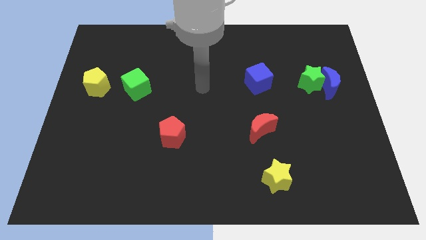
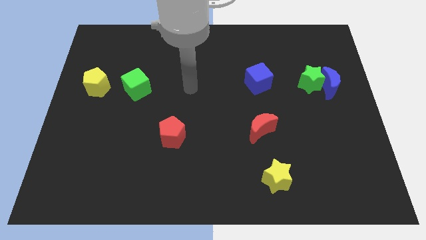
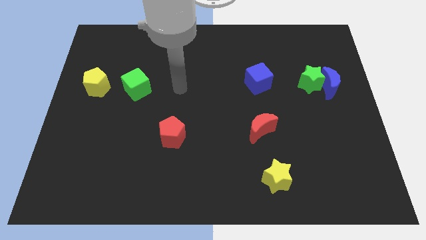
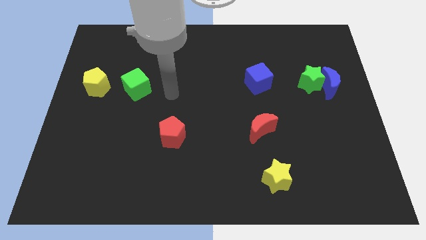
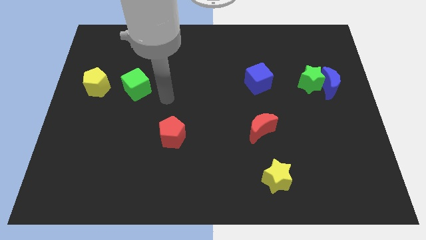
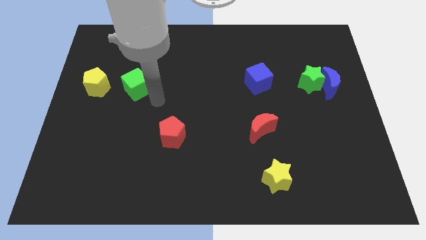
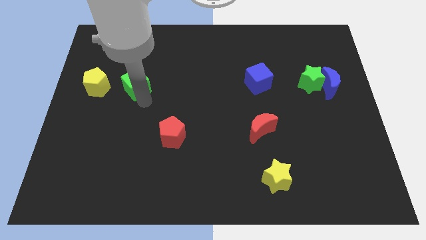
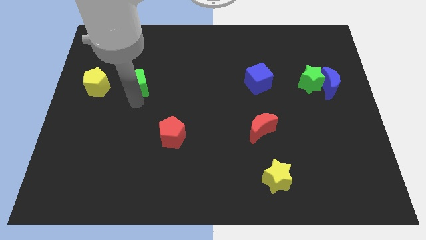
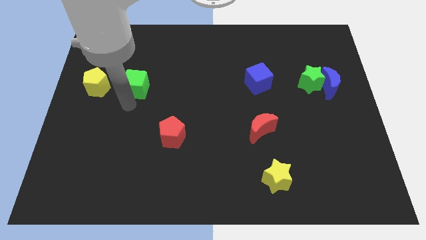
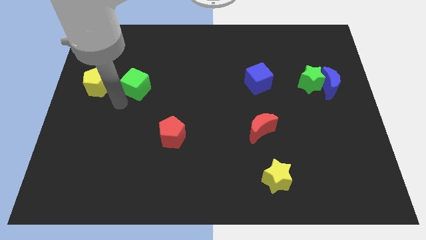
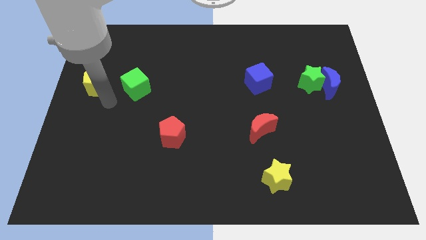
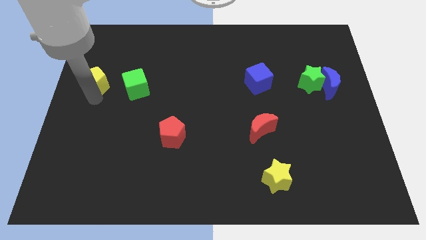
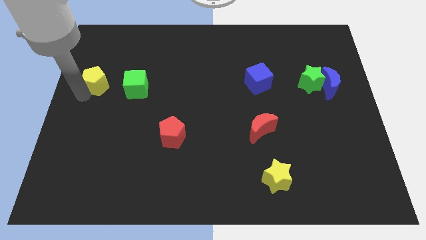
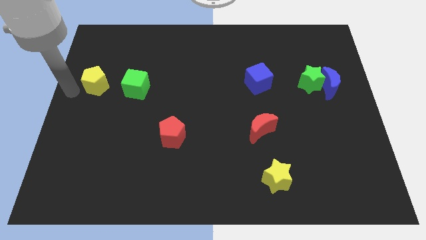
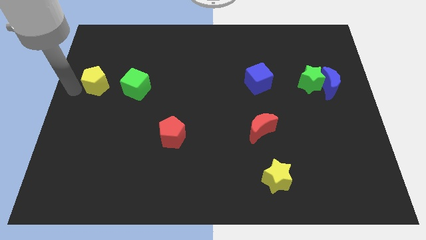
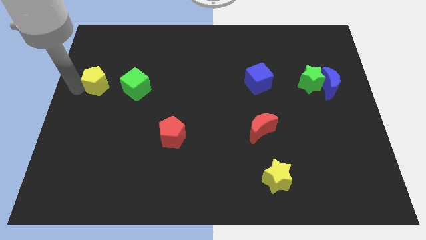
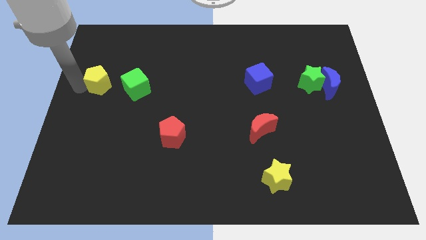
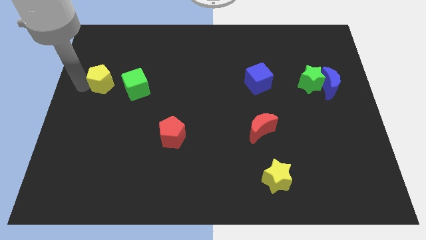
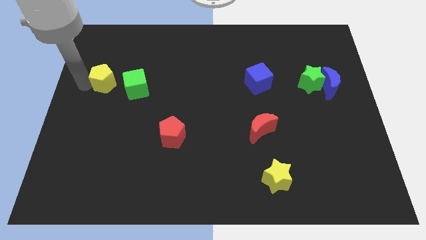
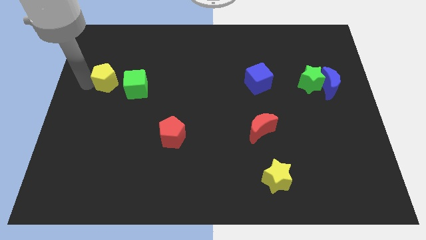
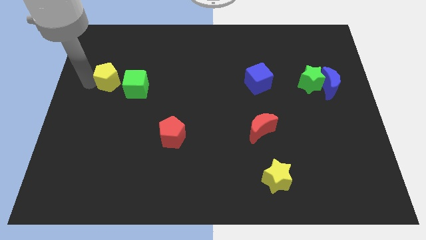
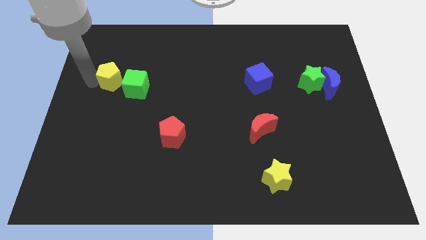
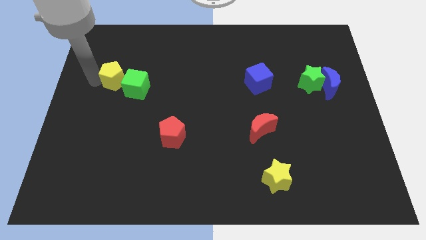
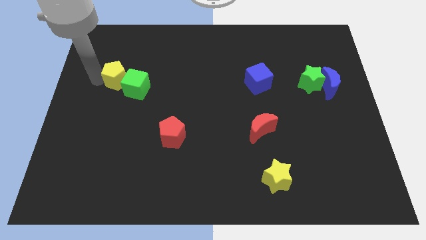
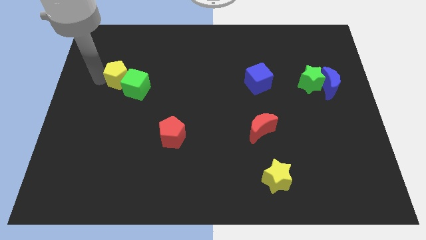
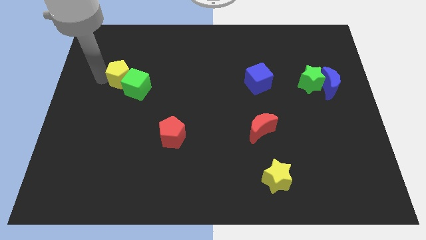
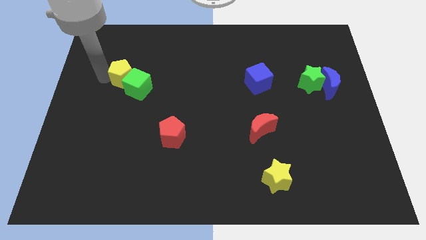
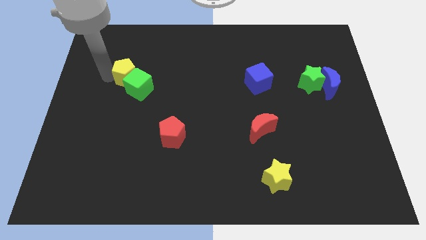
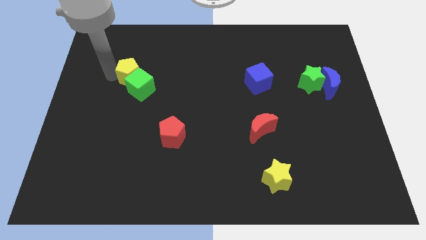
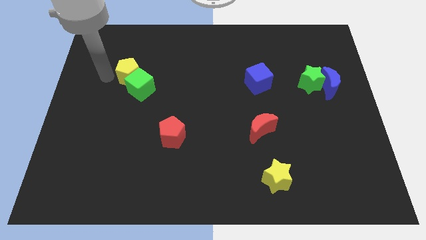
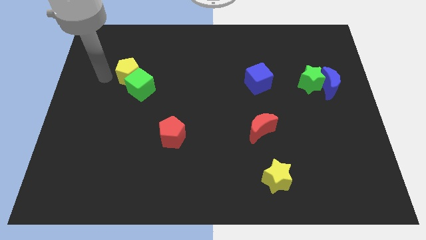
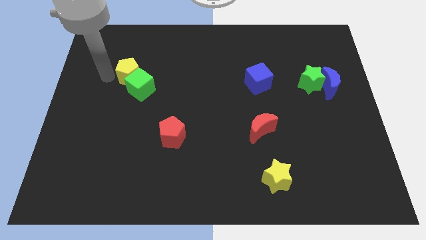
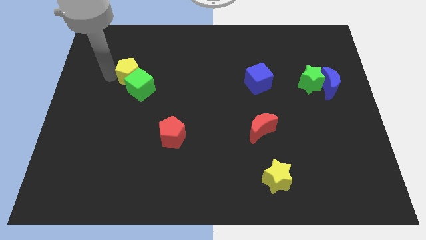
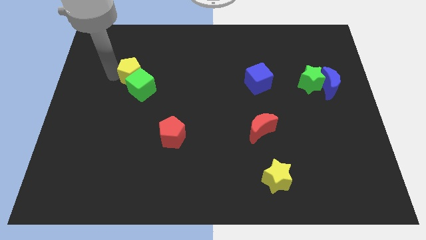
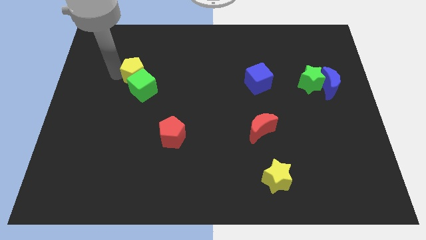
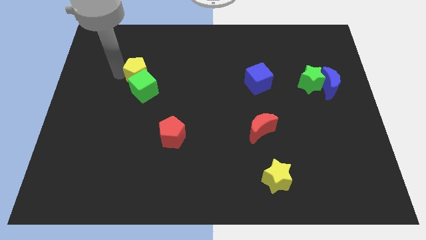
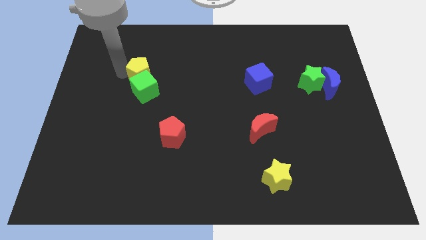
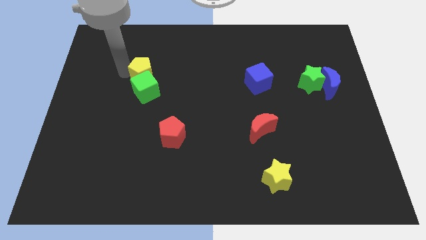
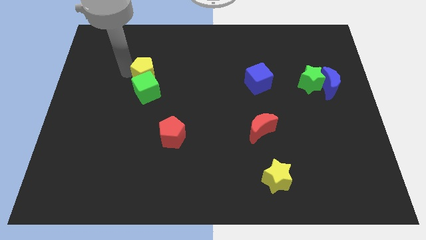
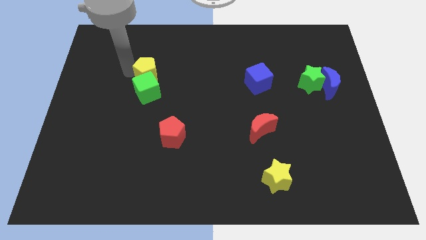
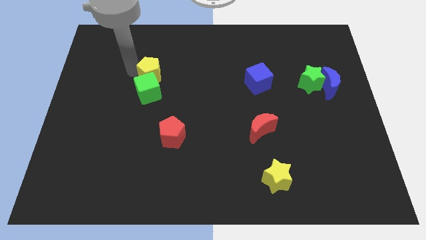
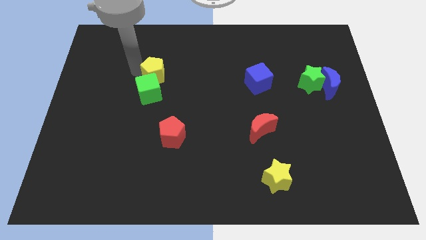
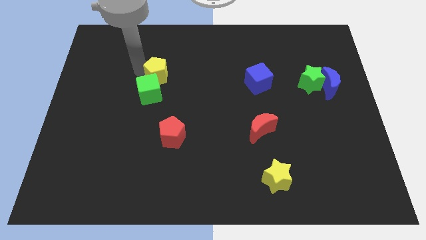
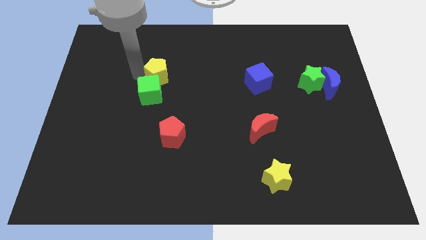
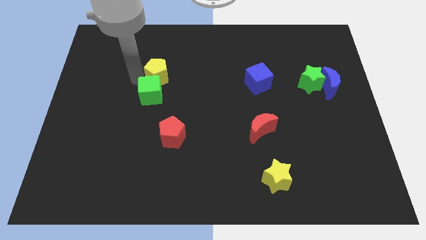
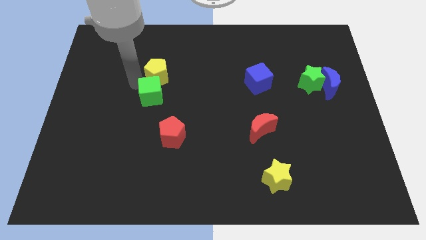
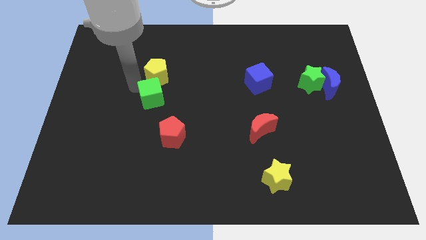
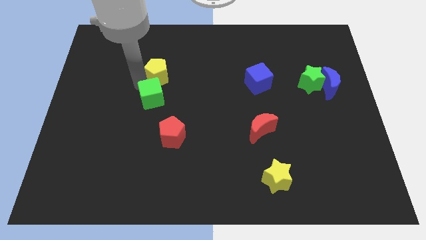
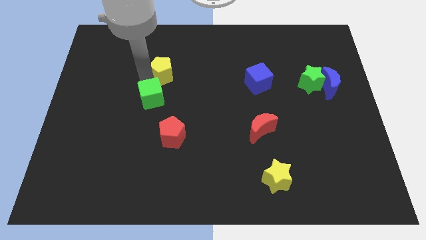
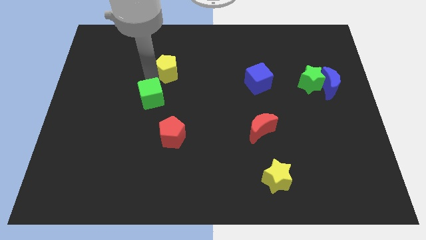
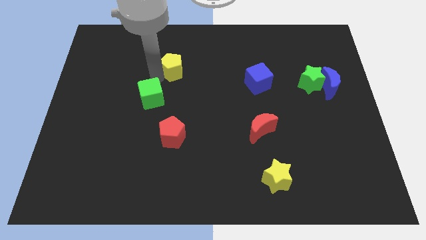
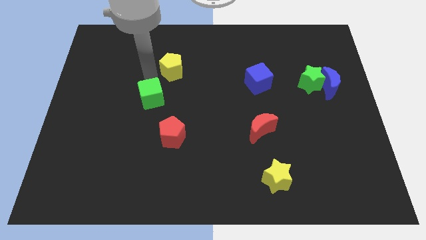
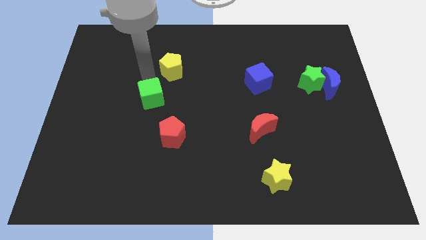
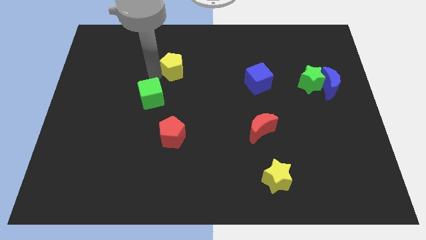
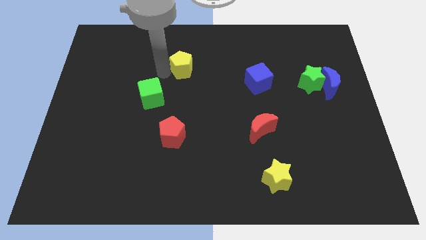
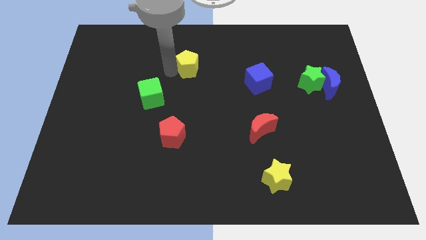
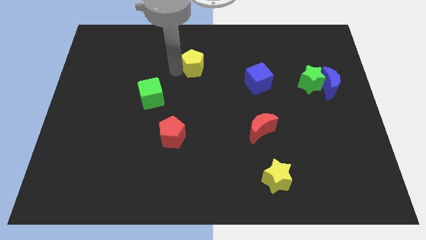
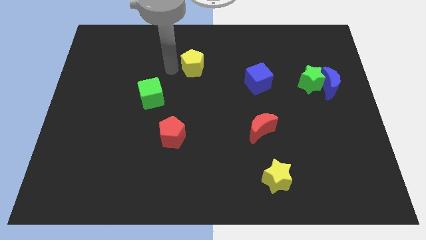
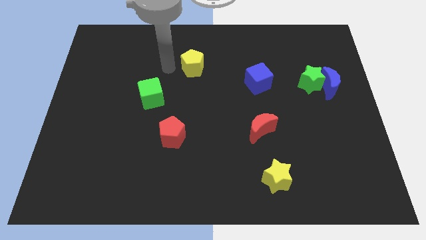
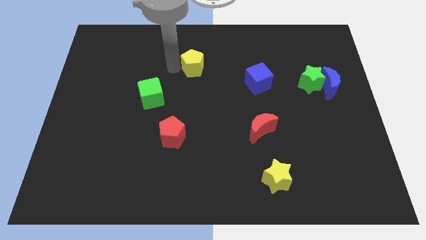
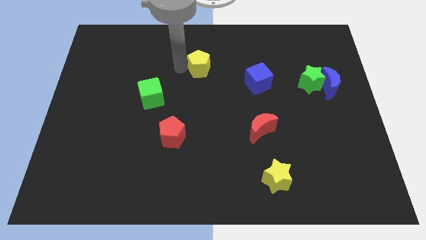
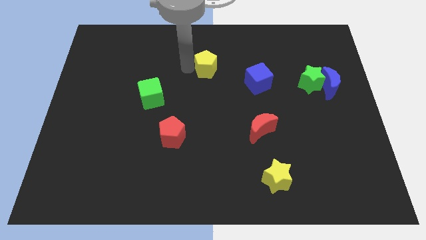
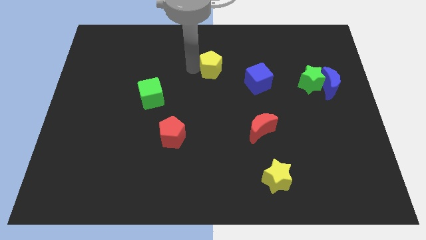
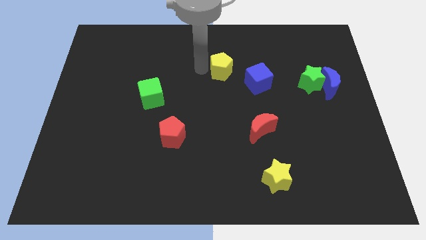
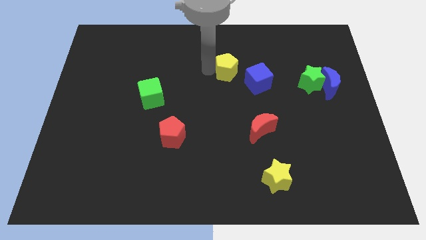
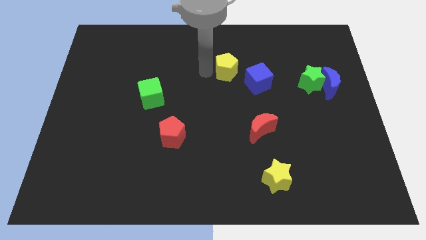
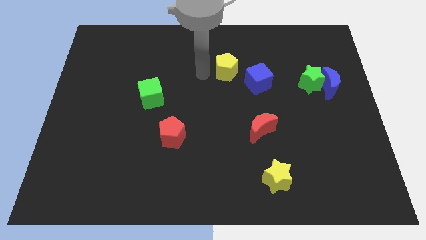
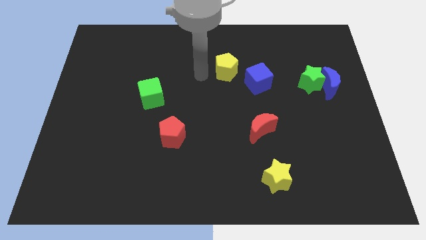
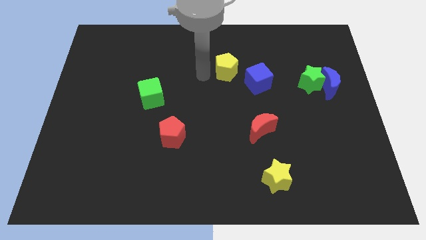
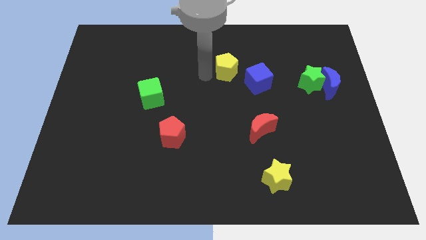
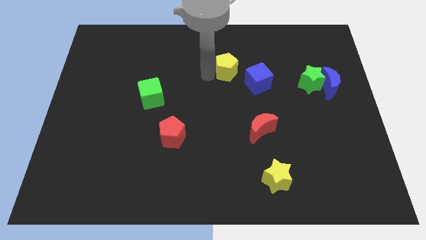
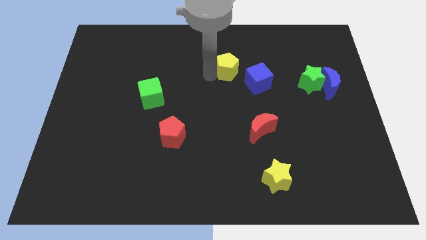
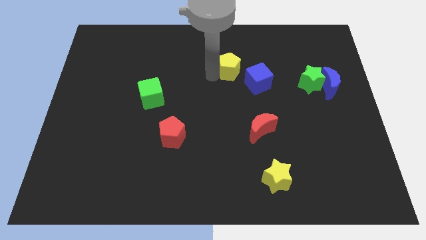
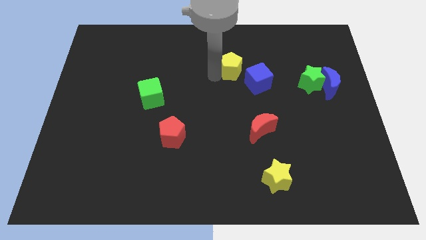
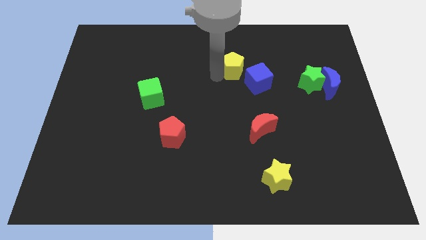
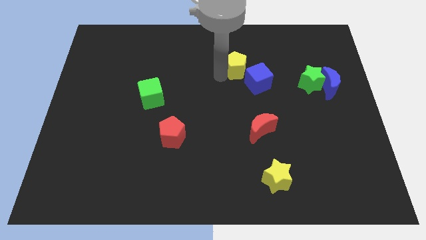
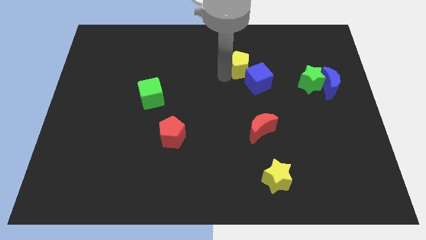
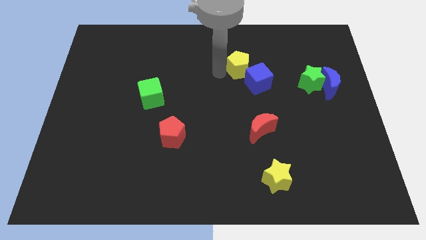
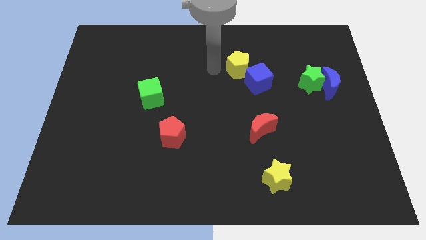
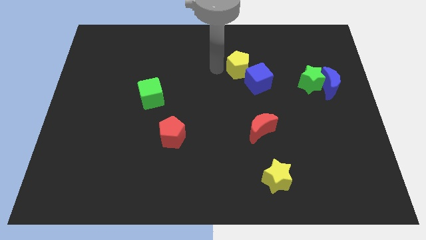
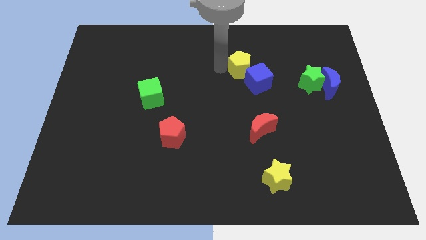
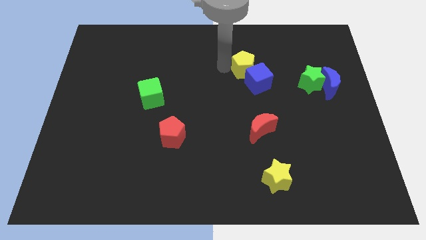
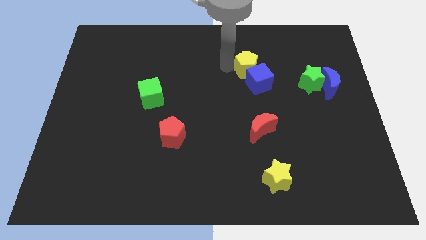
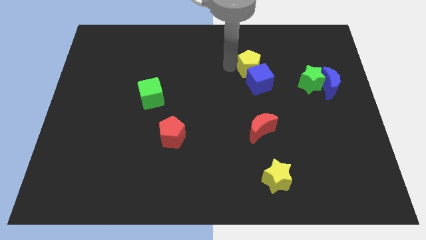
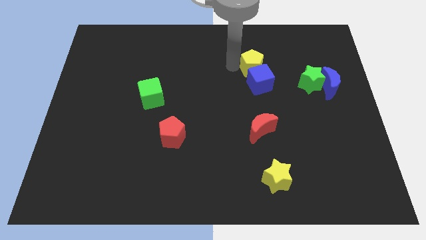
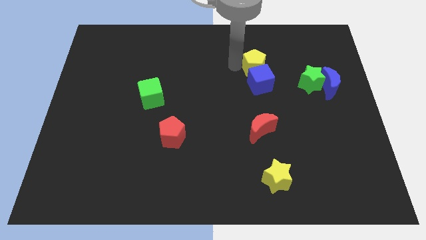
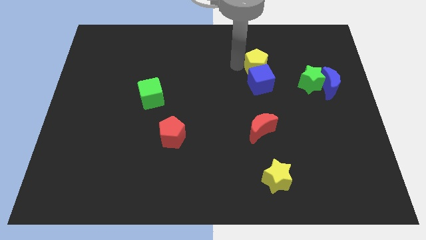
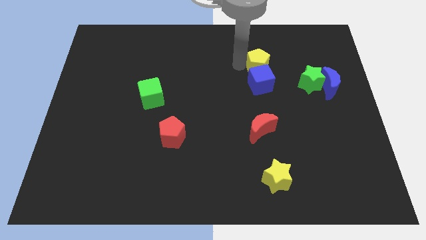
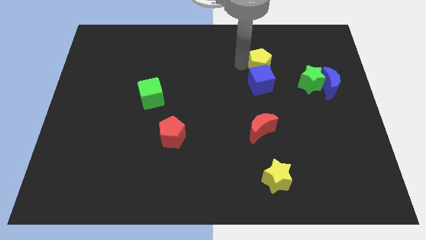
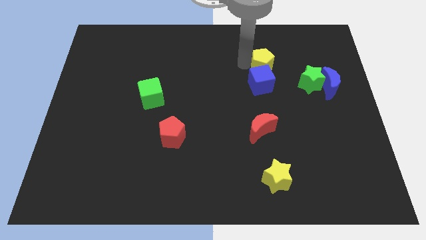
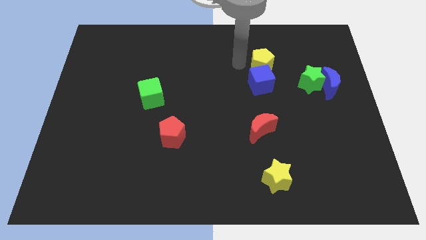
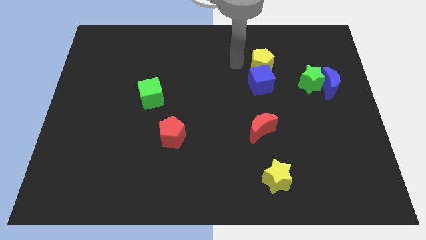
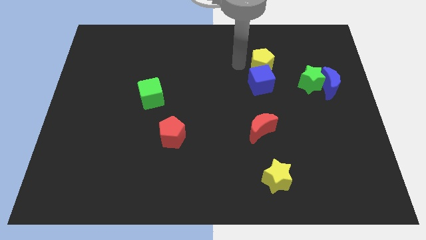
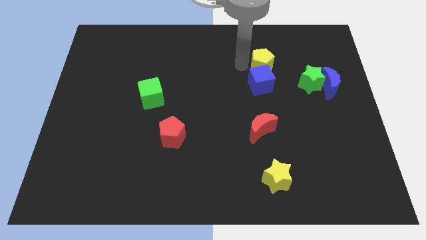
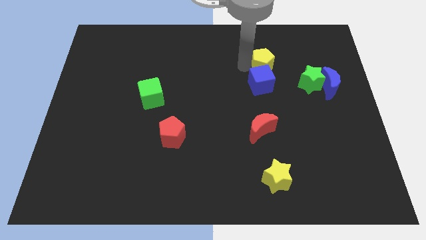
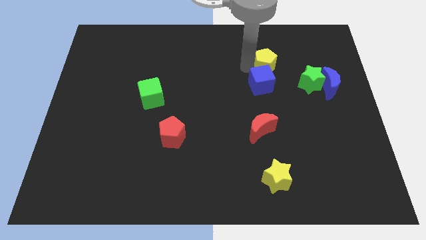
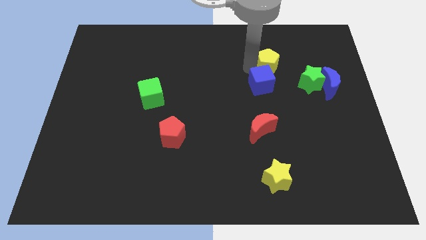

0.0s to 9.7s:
put the yellow pentagon to the top left of the green star
